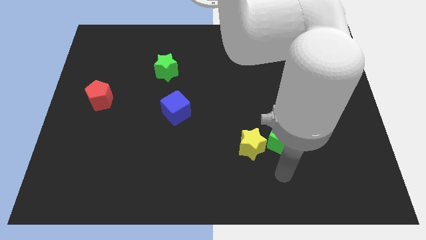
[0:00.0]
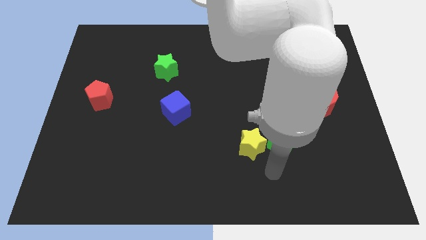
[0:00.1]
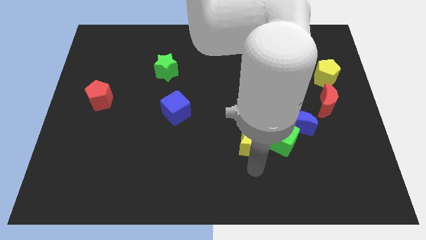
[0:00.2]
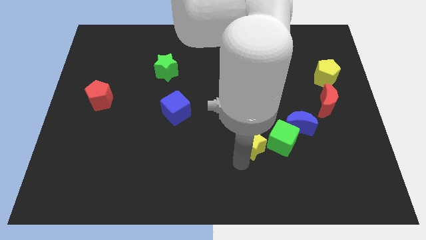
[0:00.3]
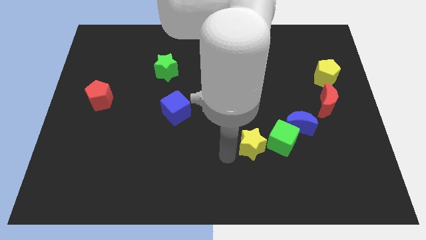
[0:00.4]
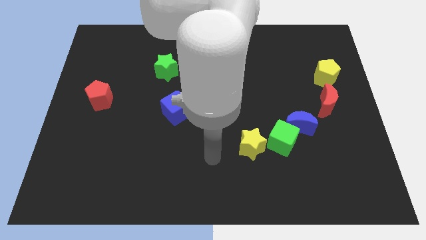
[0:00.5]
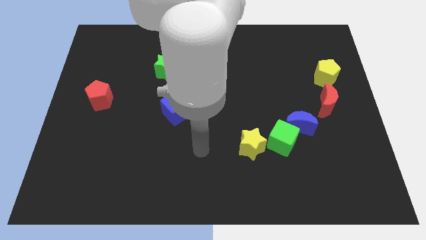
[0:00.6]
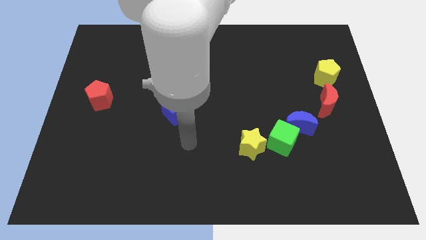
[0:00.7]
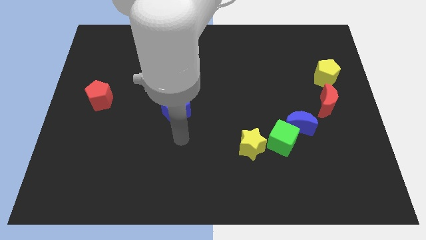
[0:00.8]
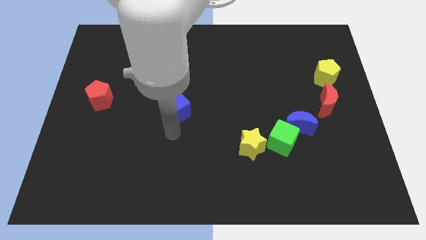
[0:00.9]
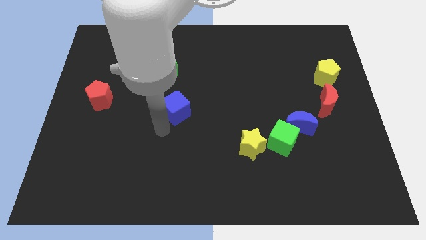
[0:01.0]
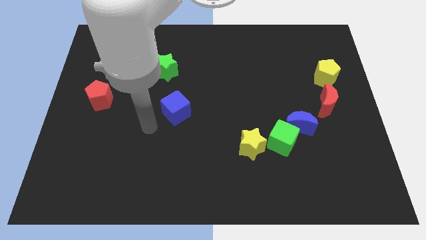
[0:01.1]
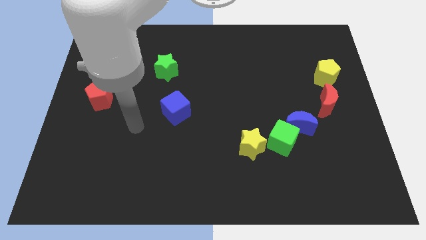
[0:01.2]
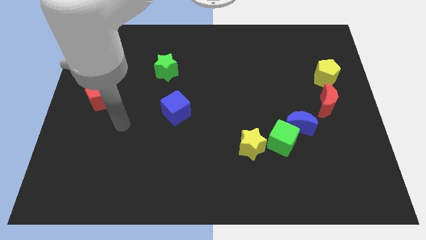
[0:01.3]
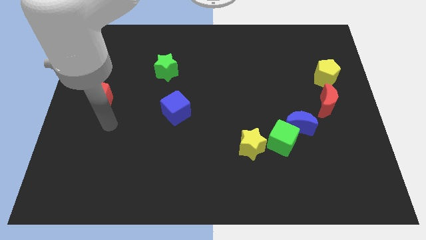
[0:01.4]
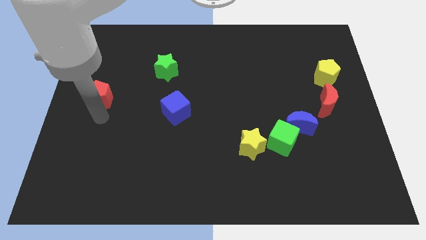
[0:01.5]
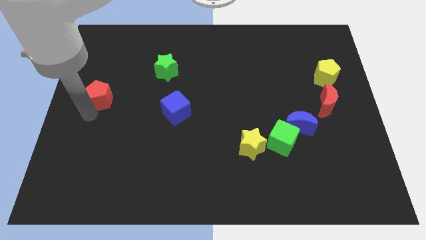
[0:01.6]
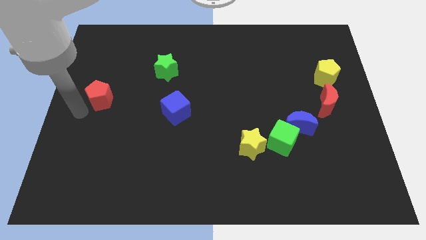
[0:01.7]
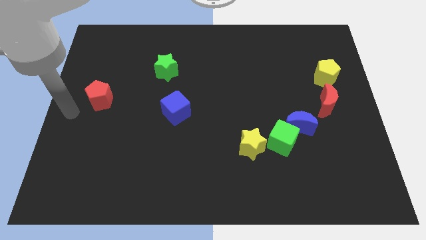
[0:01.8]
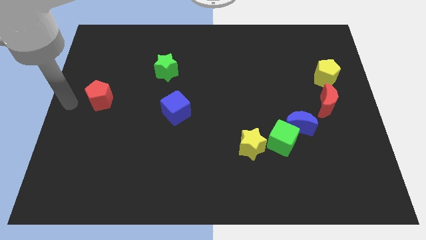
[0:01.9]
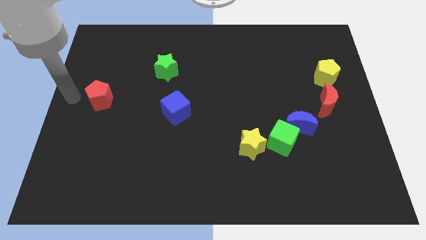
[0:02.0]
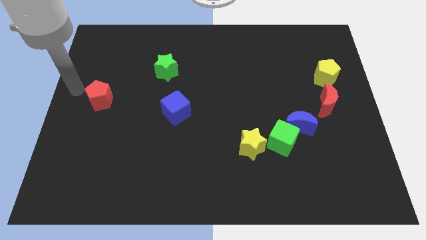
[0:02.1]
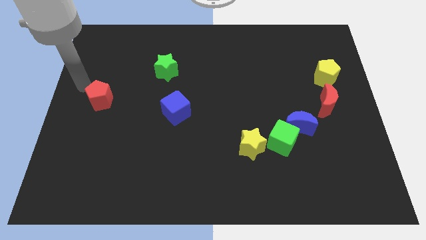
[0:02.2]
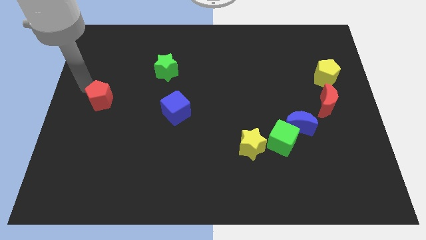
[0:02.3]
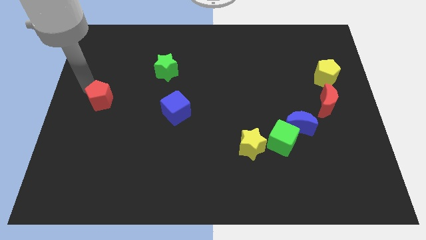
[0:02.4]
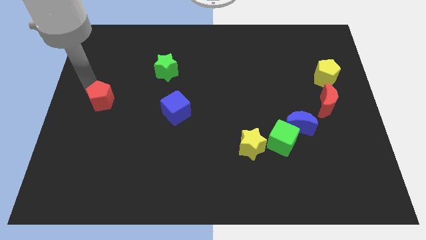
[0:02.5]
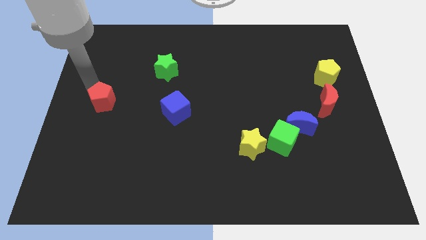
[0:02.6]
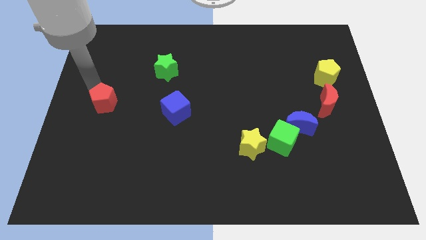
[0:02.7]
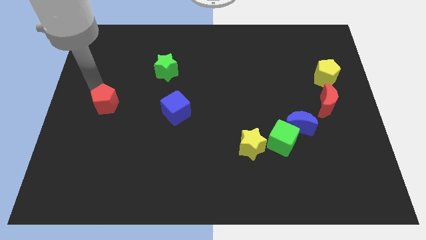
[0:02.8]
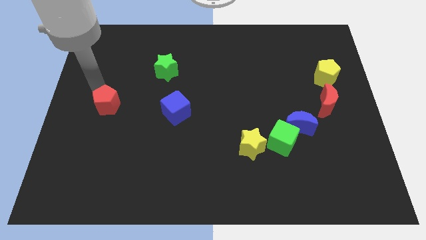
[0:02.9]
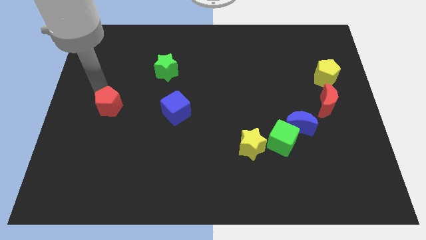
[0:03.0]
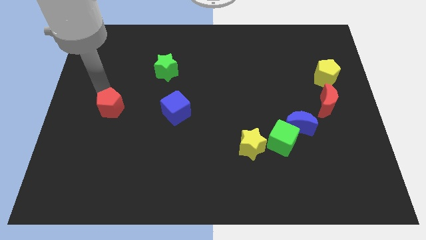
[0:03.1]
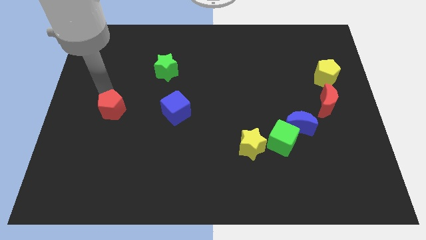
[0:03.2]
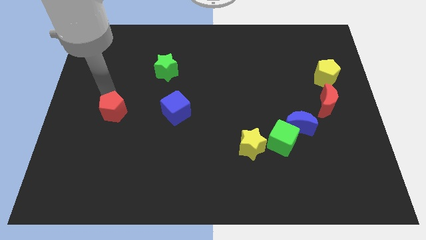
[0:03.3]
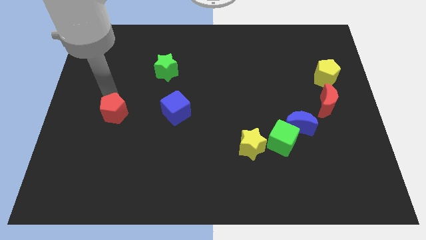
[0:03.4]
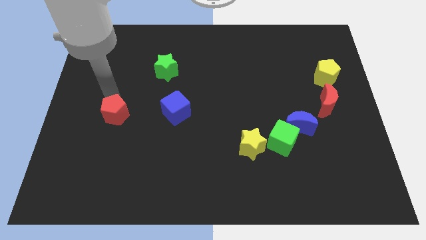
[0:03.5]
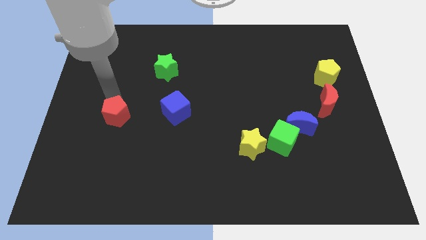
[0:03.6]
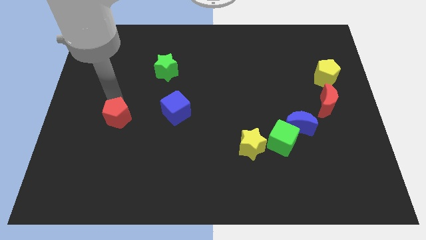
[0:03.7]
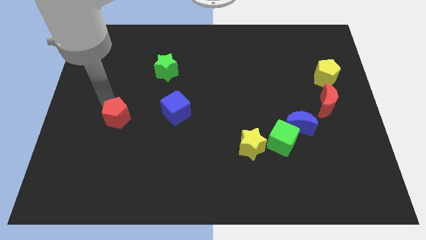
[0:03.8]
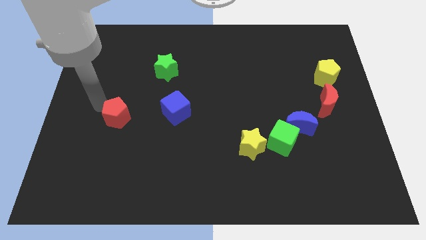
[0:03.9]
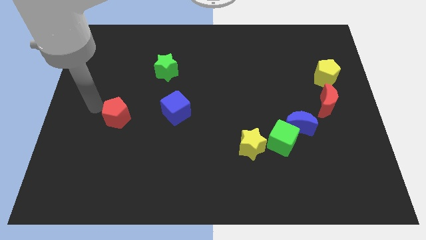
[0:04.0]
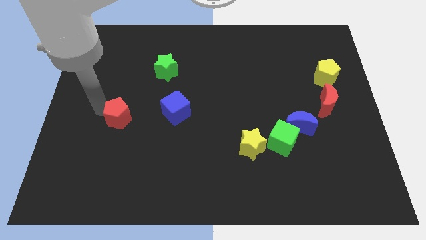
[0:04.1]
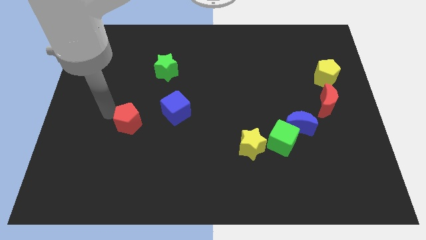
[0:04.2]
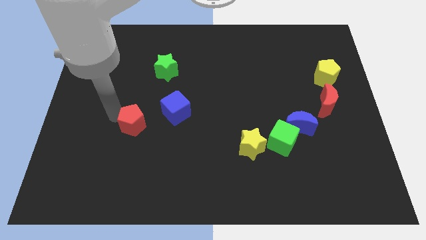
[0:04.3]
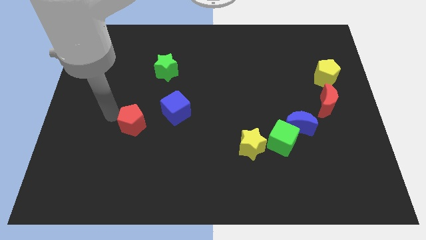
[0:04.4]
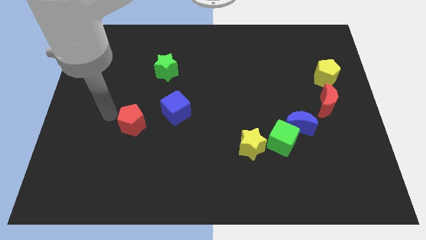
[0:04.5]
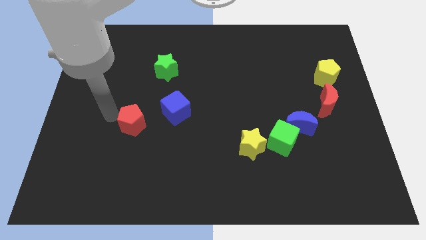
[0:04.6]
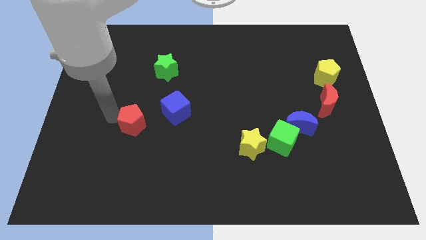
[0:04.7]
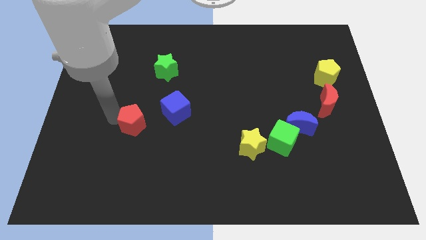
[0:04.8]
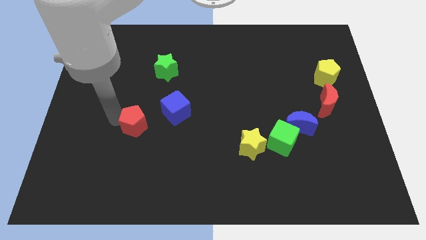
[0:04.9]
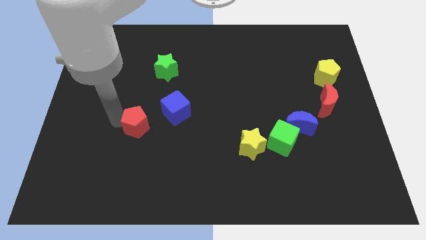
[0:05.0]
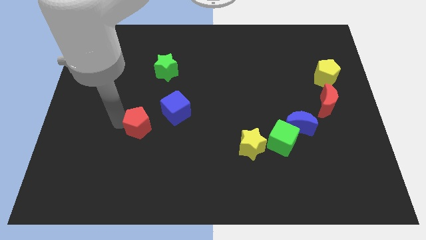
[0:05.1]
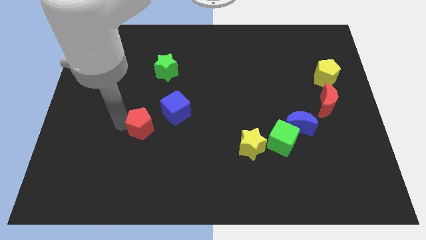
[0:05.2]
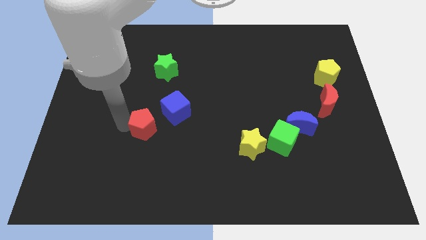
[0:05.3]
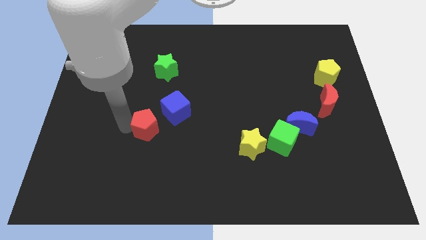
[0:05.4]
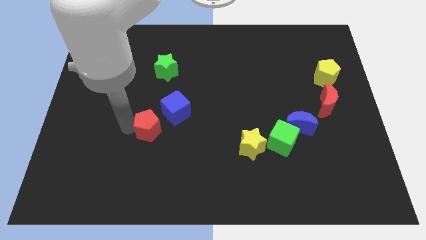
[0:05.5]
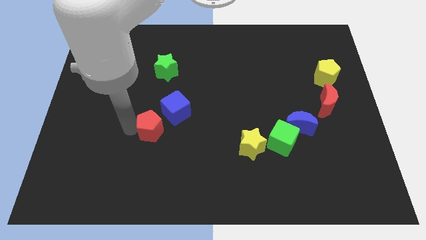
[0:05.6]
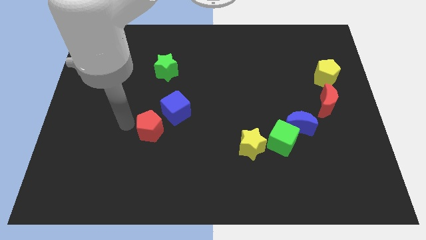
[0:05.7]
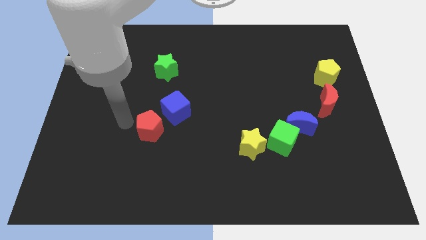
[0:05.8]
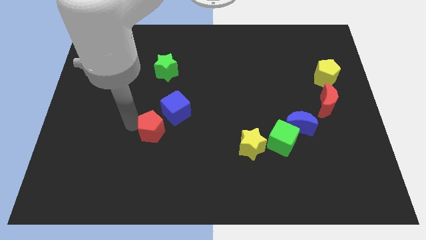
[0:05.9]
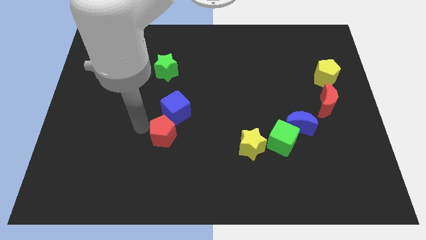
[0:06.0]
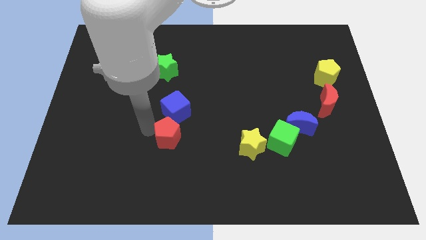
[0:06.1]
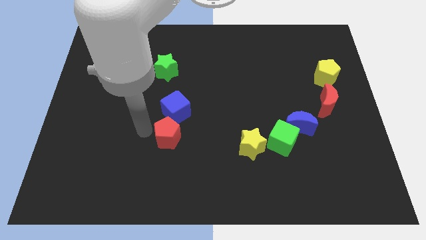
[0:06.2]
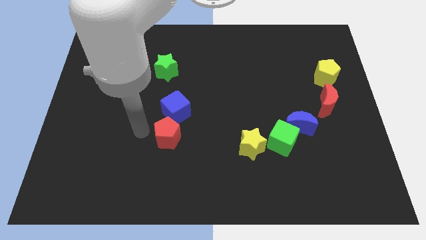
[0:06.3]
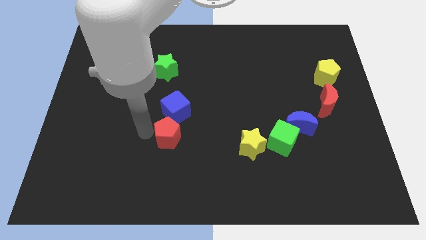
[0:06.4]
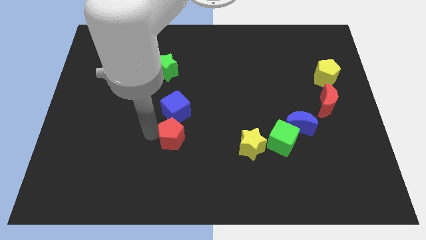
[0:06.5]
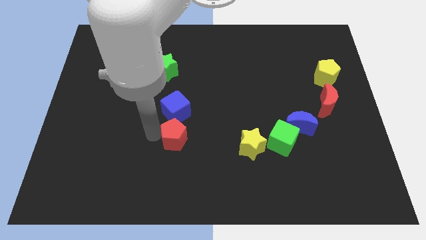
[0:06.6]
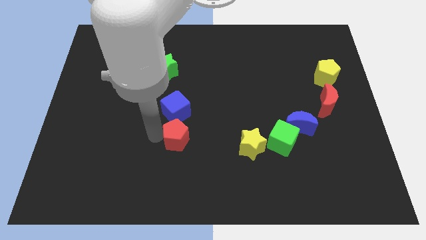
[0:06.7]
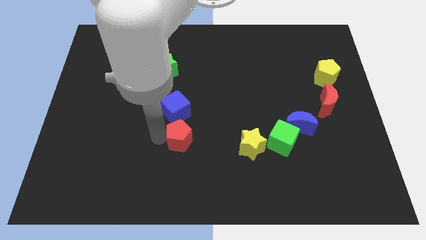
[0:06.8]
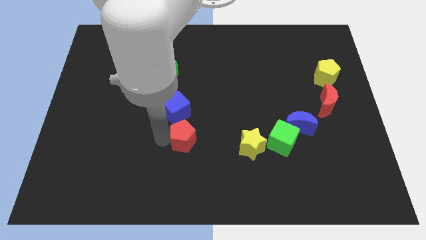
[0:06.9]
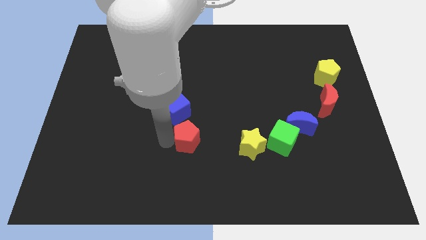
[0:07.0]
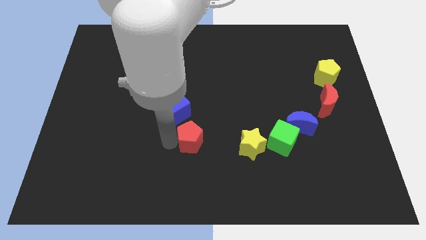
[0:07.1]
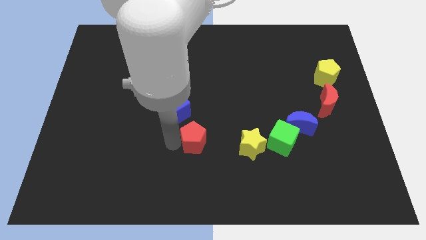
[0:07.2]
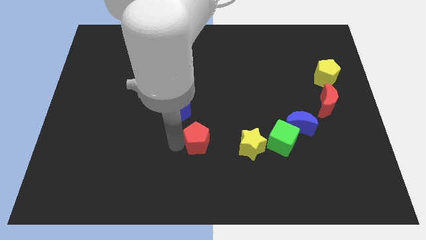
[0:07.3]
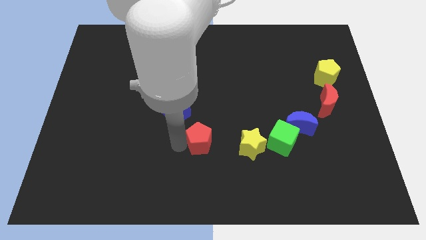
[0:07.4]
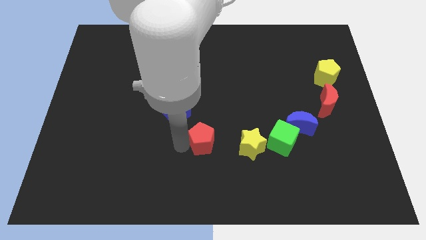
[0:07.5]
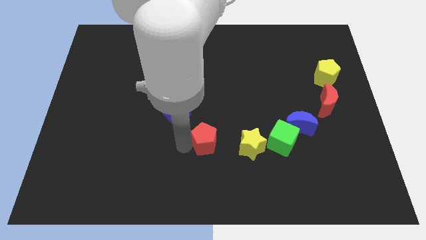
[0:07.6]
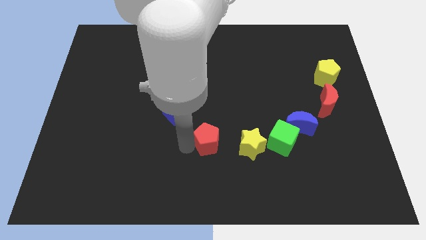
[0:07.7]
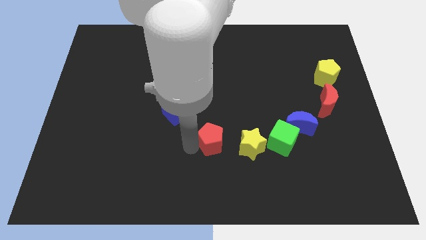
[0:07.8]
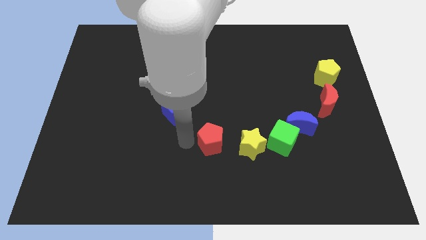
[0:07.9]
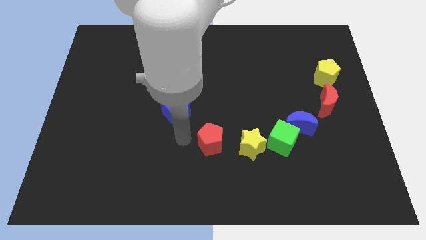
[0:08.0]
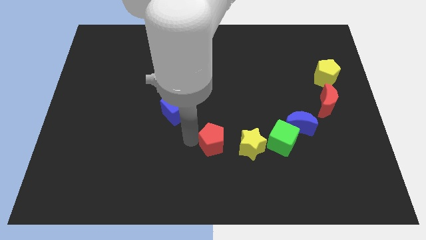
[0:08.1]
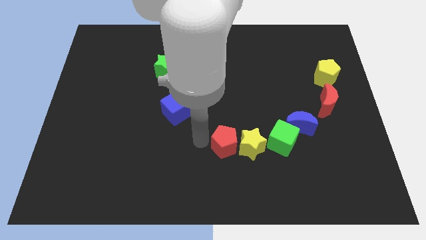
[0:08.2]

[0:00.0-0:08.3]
move the red pentagon close to the yellow star
